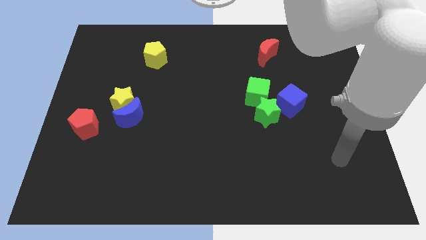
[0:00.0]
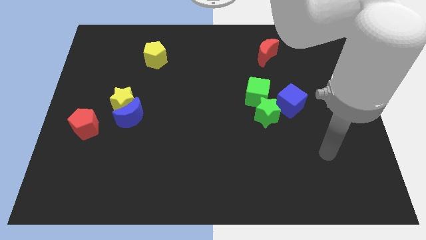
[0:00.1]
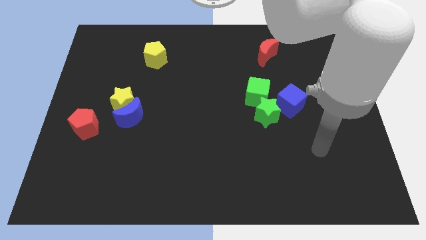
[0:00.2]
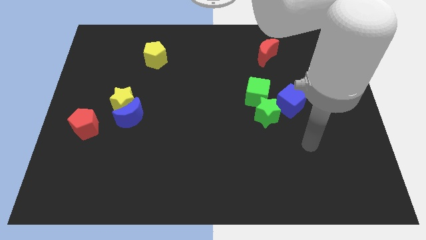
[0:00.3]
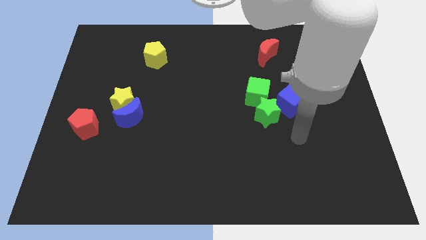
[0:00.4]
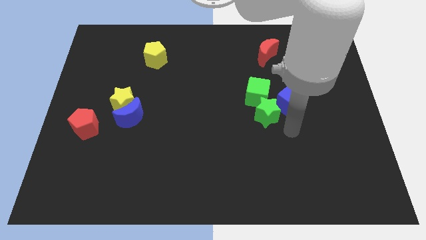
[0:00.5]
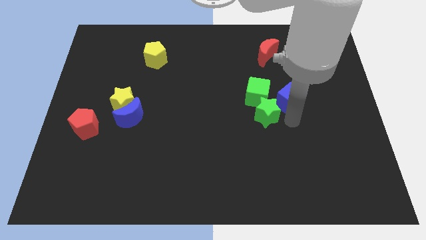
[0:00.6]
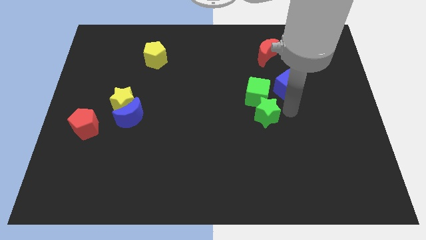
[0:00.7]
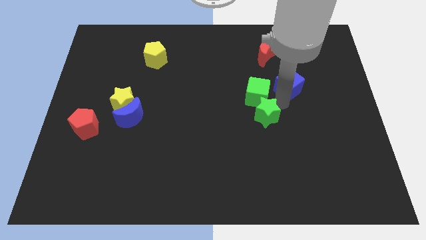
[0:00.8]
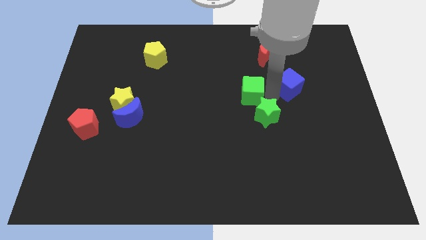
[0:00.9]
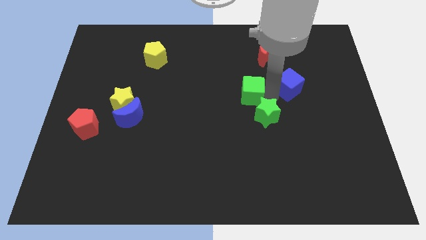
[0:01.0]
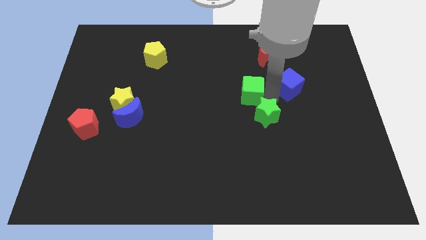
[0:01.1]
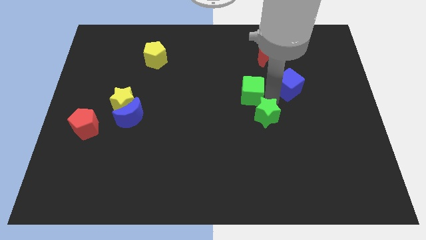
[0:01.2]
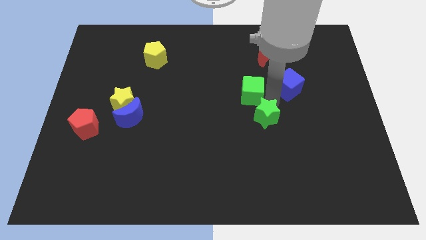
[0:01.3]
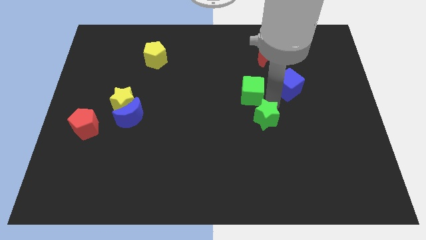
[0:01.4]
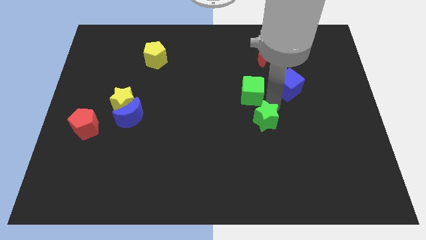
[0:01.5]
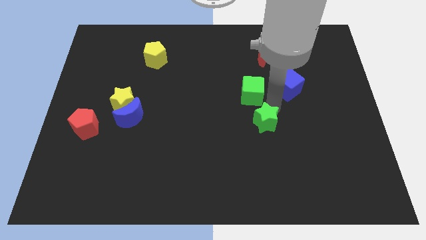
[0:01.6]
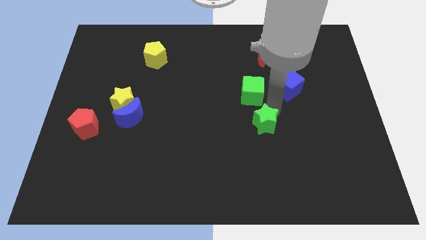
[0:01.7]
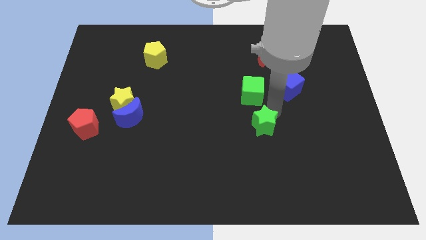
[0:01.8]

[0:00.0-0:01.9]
pull the green star apart from the green cube and blue cube

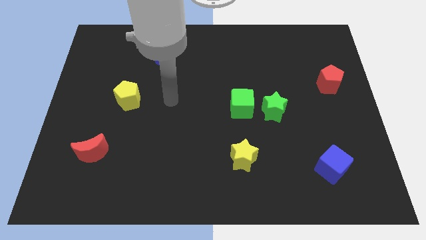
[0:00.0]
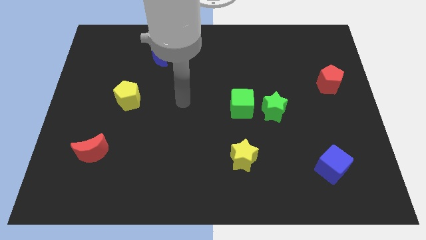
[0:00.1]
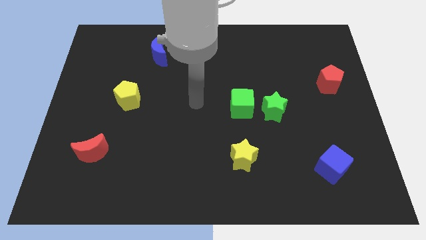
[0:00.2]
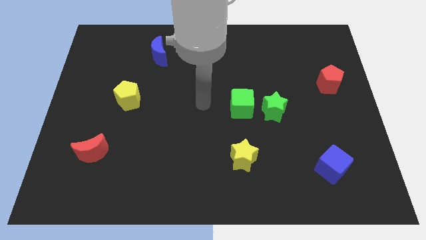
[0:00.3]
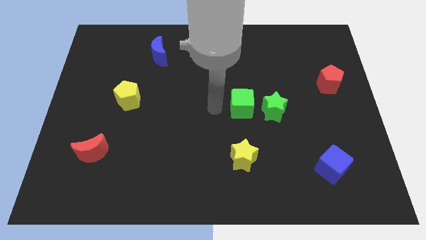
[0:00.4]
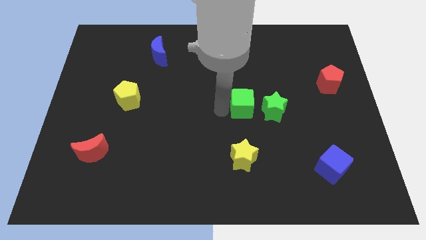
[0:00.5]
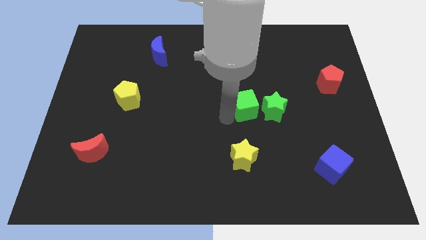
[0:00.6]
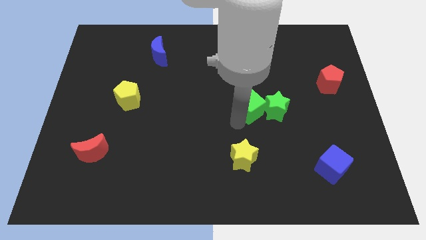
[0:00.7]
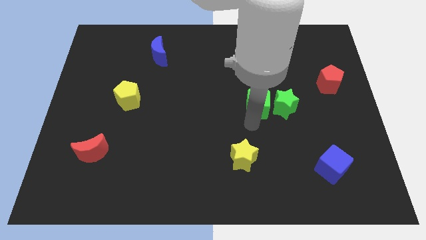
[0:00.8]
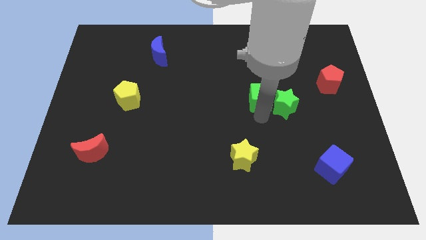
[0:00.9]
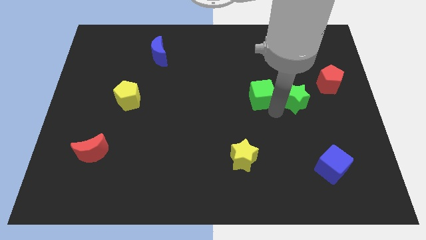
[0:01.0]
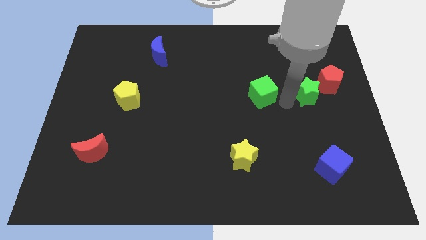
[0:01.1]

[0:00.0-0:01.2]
pull the green cube apart from the green star

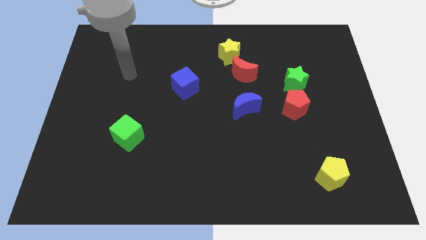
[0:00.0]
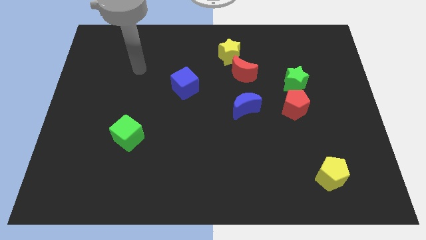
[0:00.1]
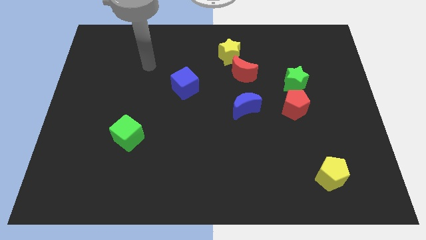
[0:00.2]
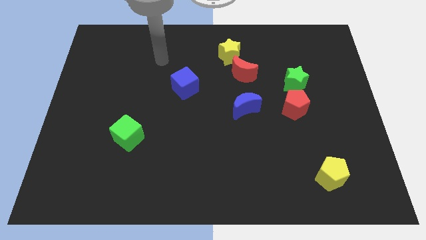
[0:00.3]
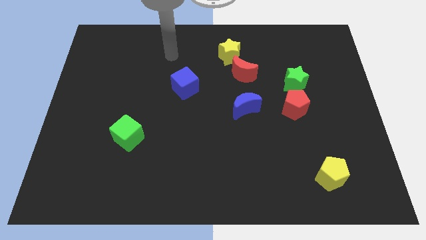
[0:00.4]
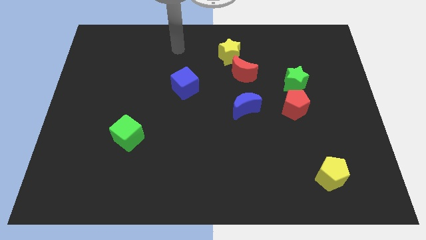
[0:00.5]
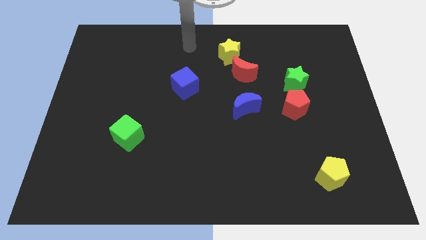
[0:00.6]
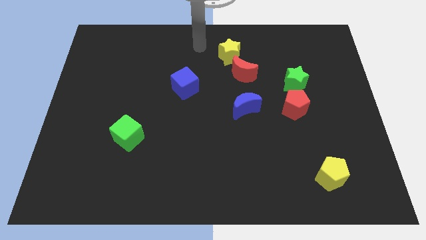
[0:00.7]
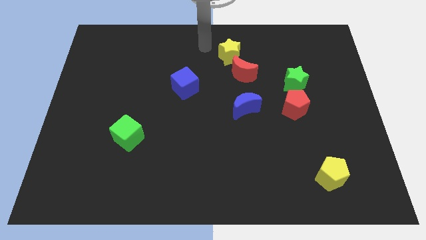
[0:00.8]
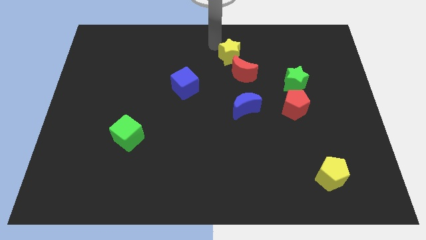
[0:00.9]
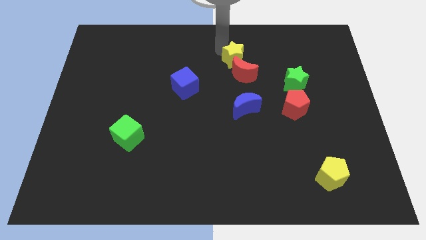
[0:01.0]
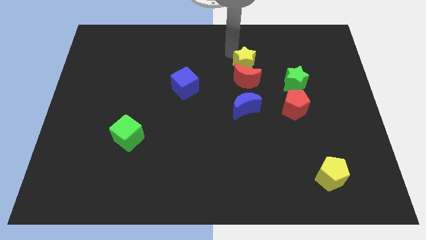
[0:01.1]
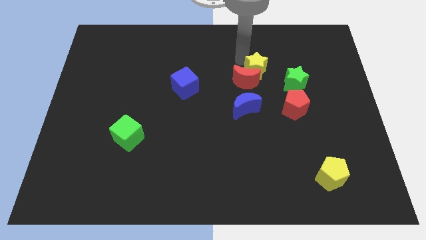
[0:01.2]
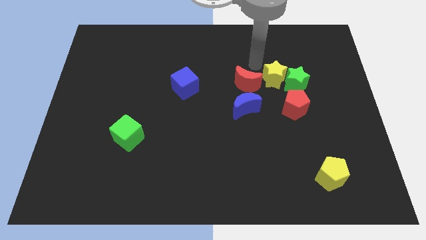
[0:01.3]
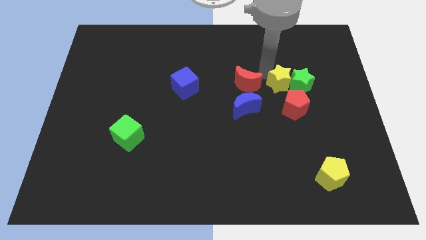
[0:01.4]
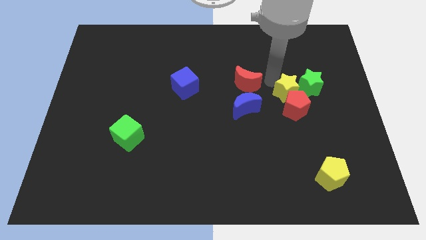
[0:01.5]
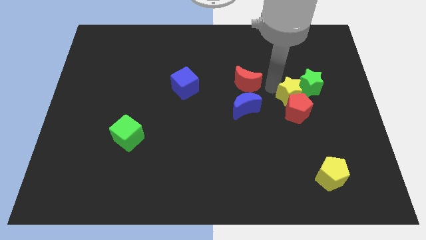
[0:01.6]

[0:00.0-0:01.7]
pull the red moon apart from the yellow star

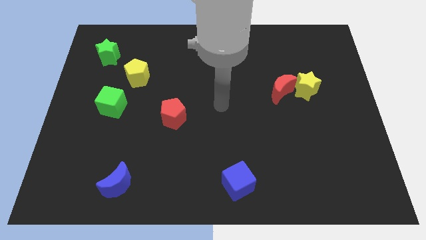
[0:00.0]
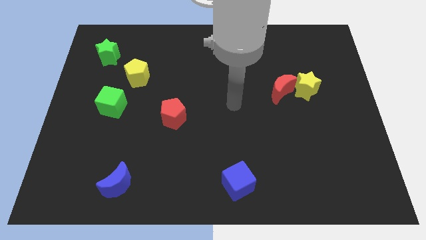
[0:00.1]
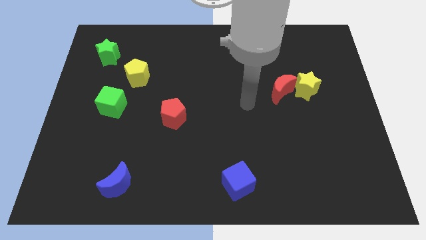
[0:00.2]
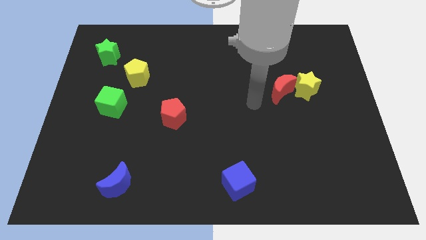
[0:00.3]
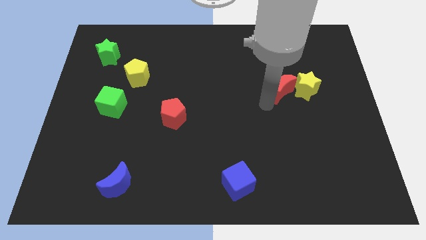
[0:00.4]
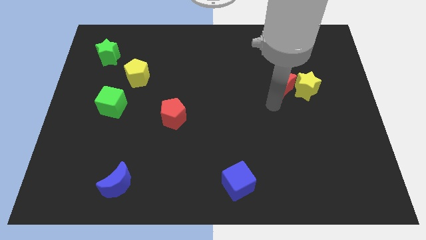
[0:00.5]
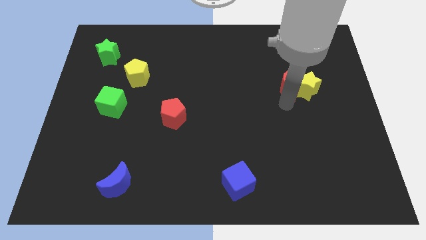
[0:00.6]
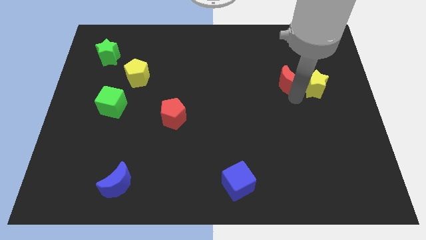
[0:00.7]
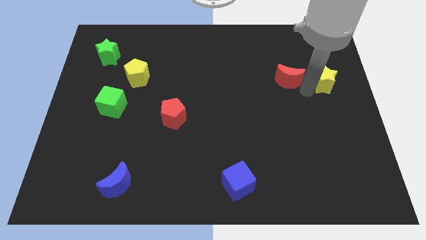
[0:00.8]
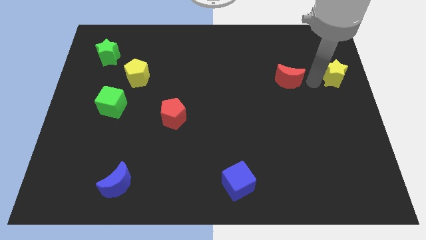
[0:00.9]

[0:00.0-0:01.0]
move the red moon away from the yellow star

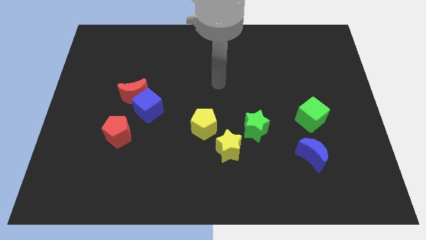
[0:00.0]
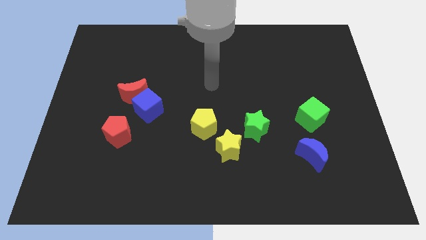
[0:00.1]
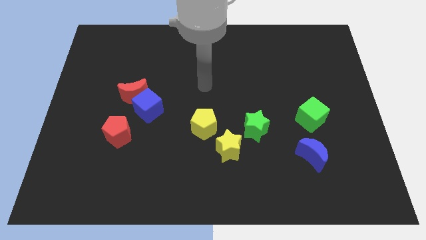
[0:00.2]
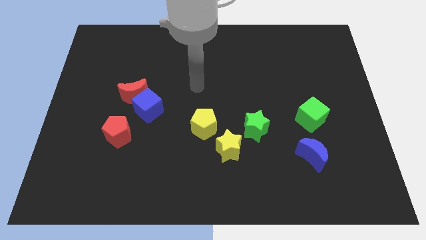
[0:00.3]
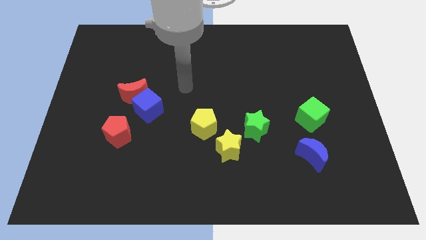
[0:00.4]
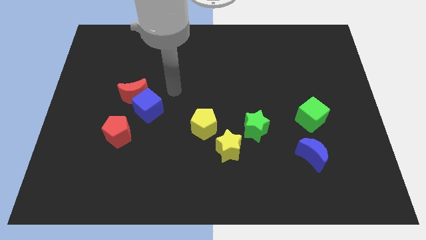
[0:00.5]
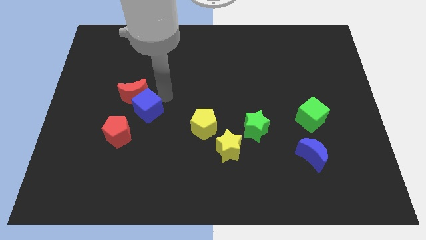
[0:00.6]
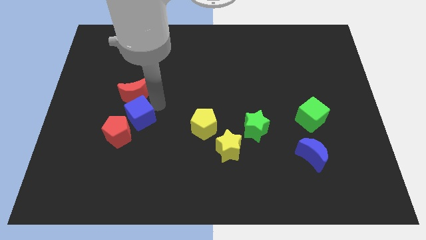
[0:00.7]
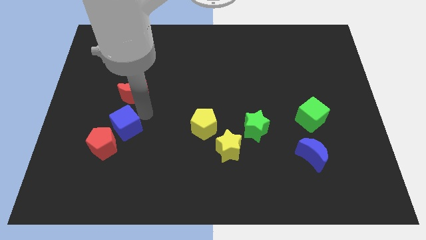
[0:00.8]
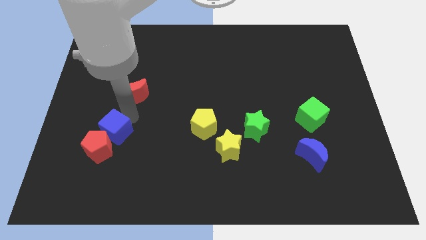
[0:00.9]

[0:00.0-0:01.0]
move the red moon away from the blue cube

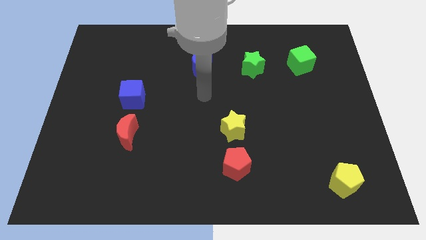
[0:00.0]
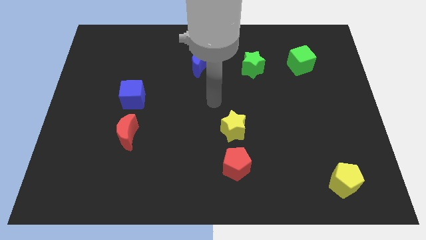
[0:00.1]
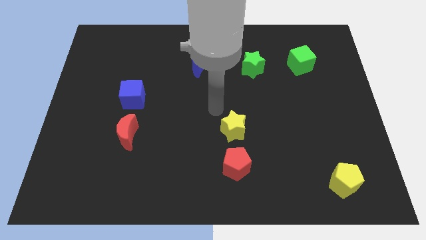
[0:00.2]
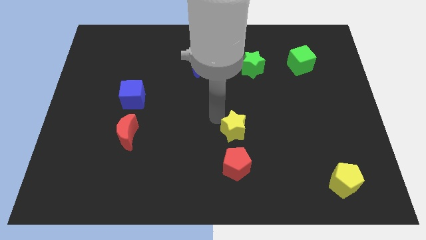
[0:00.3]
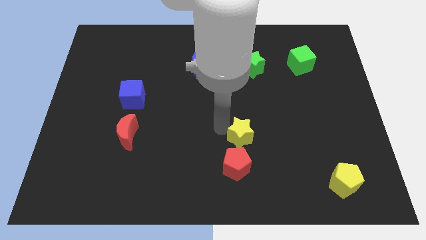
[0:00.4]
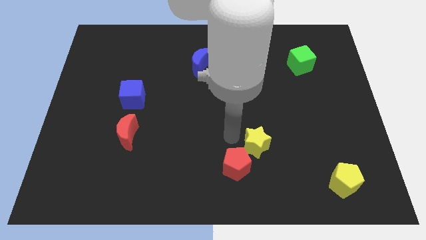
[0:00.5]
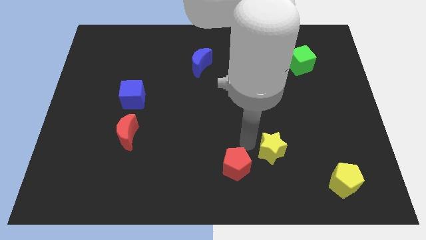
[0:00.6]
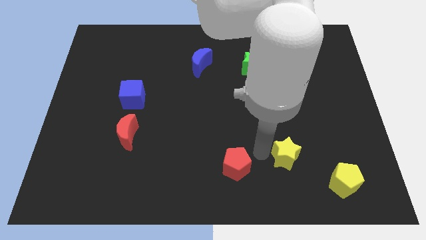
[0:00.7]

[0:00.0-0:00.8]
separate the red pentagon from the yellow star

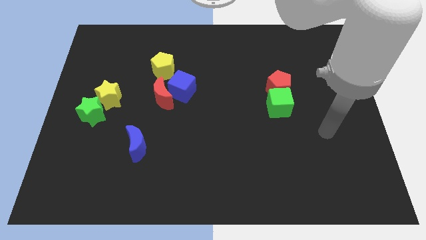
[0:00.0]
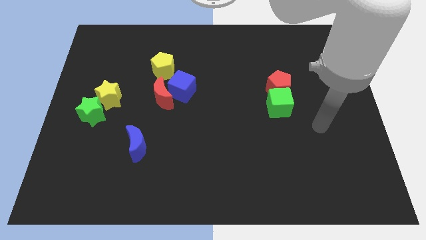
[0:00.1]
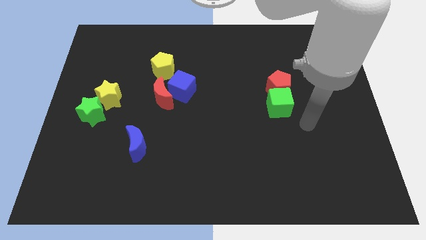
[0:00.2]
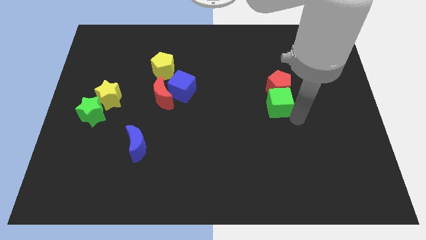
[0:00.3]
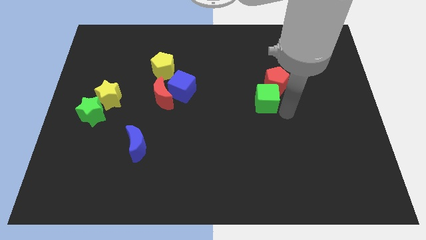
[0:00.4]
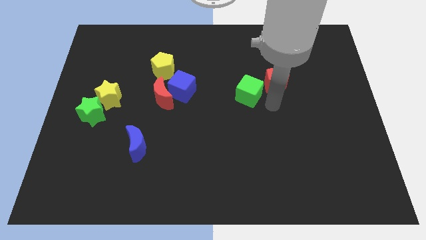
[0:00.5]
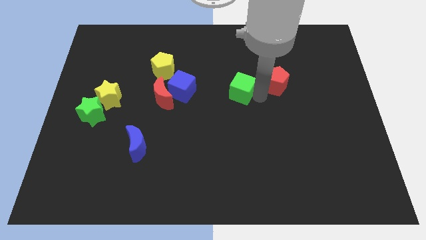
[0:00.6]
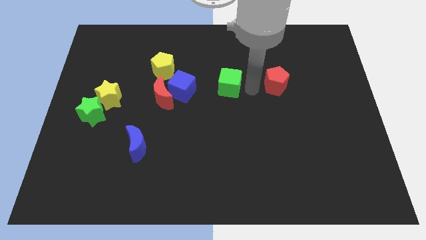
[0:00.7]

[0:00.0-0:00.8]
move the red pentagon away from the green cube

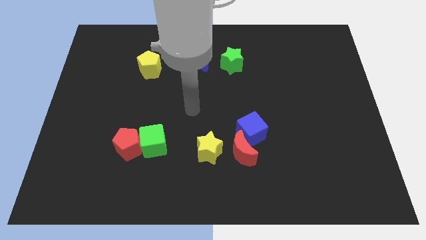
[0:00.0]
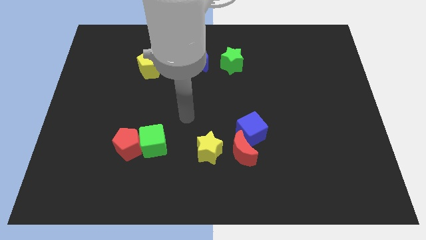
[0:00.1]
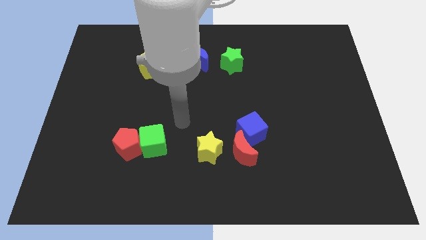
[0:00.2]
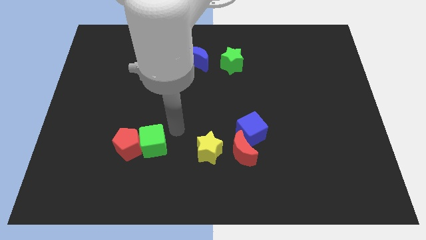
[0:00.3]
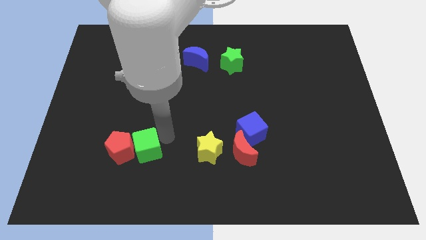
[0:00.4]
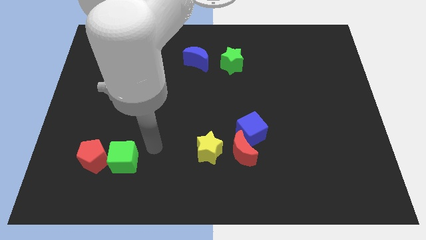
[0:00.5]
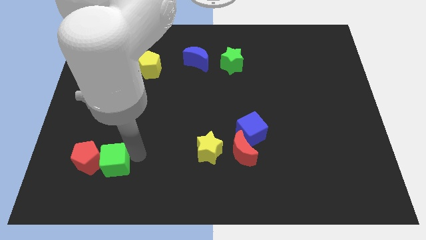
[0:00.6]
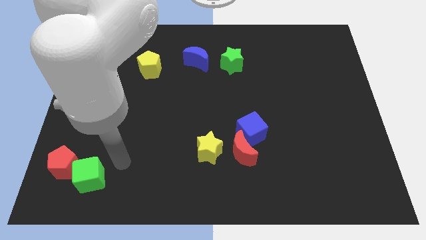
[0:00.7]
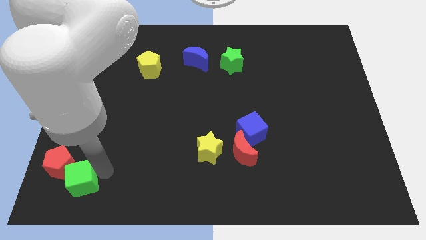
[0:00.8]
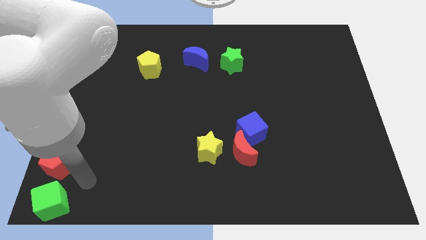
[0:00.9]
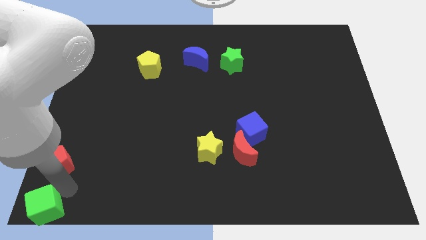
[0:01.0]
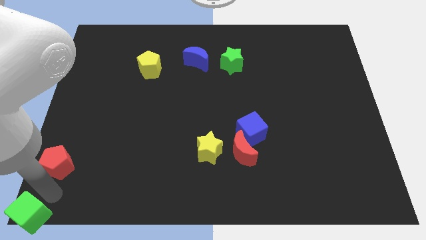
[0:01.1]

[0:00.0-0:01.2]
pull the red pentagon apart from the green cube
